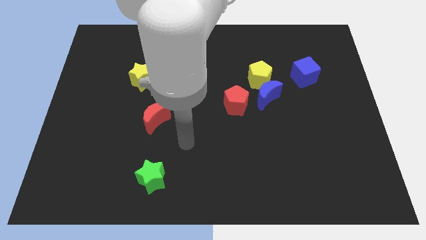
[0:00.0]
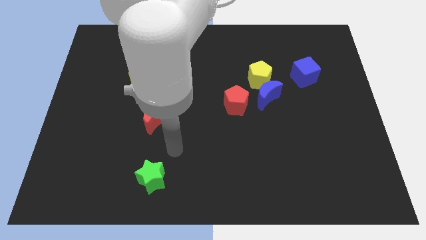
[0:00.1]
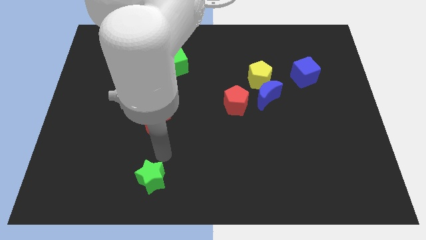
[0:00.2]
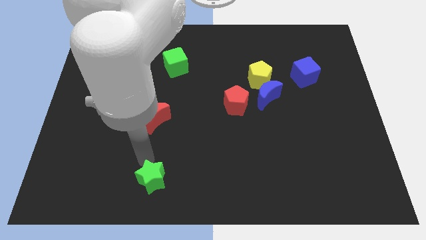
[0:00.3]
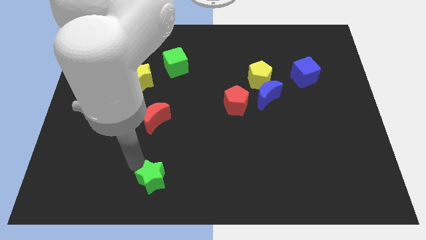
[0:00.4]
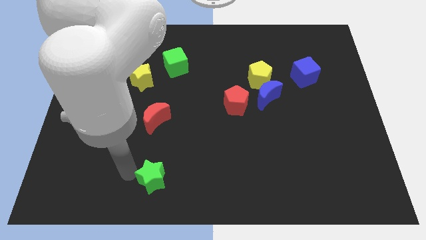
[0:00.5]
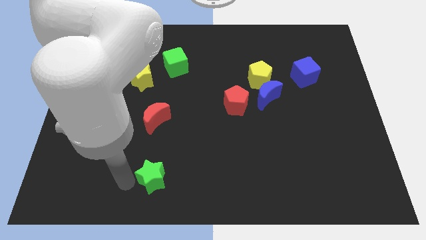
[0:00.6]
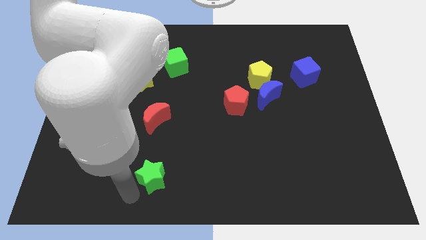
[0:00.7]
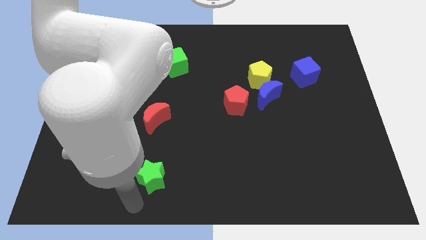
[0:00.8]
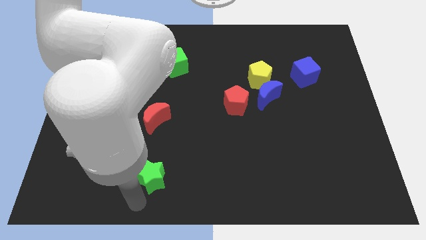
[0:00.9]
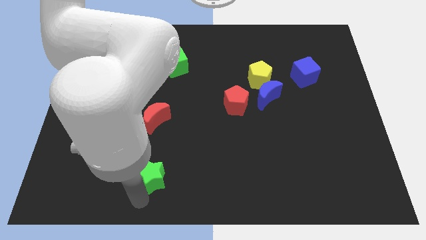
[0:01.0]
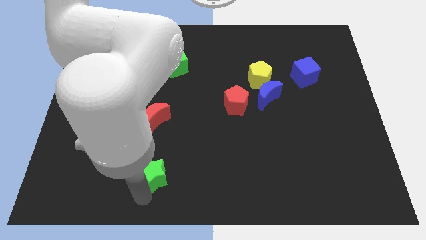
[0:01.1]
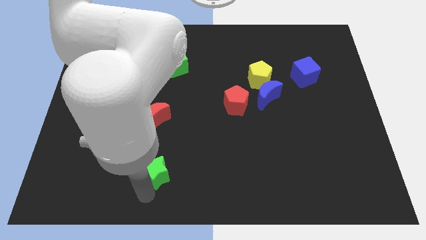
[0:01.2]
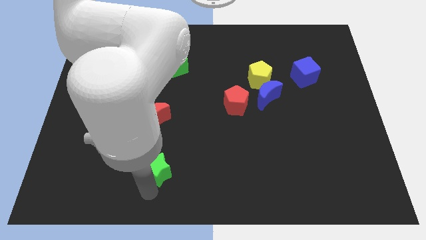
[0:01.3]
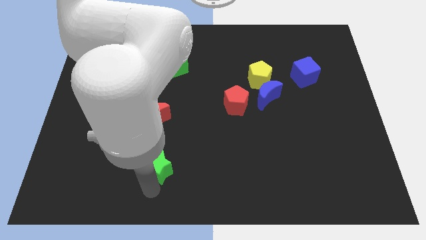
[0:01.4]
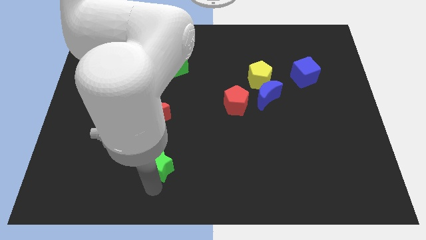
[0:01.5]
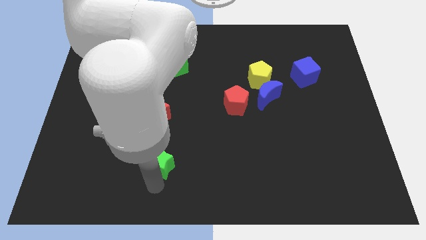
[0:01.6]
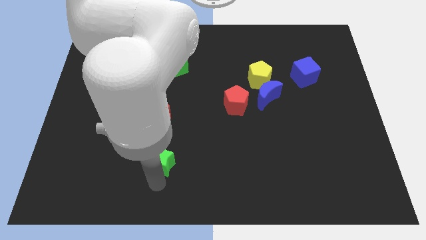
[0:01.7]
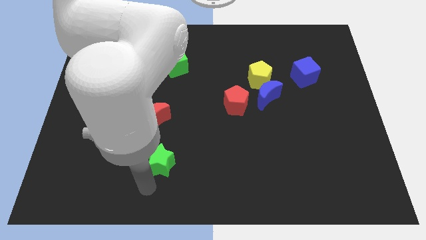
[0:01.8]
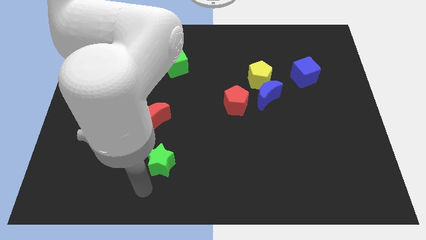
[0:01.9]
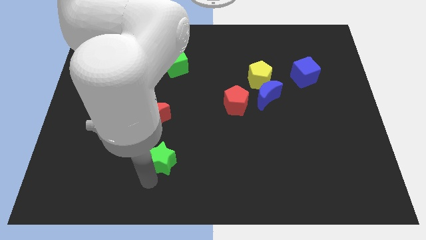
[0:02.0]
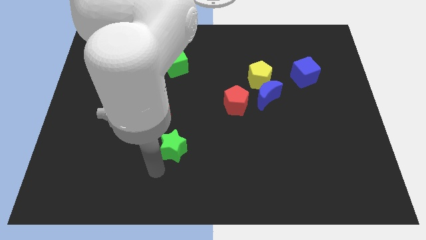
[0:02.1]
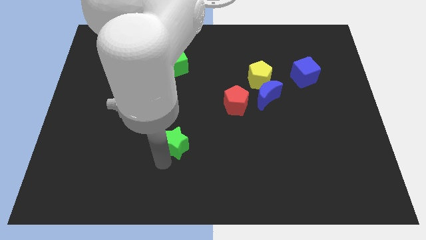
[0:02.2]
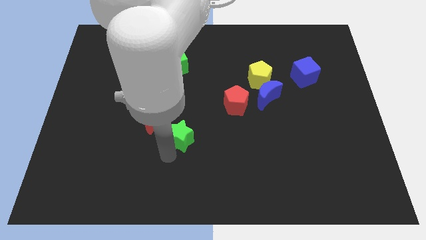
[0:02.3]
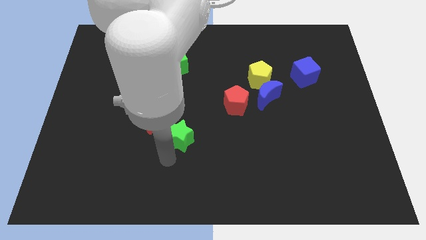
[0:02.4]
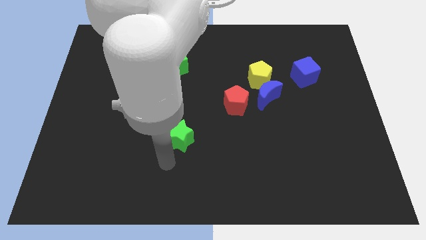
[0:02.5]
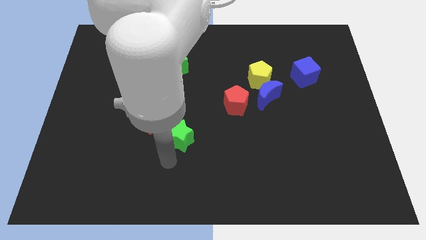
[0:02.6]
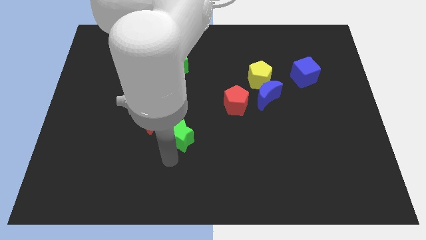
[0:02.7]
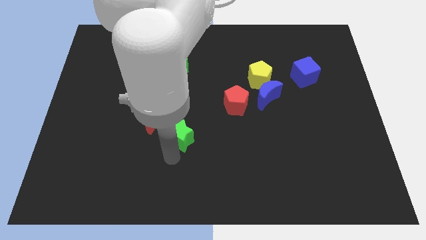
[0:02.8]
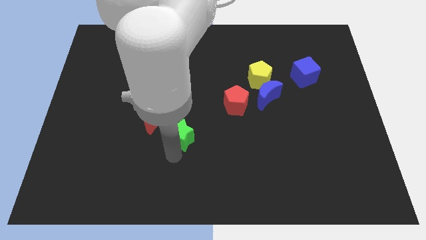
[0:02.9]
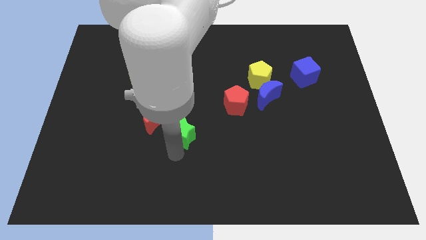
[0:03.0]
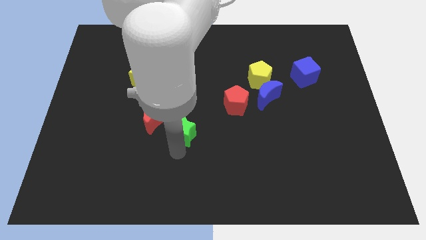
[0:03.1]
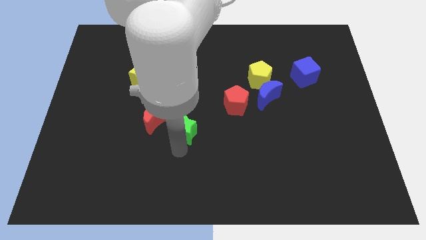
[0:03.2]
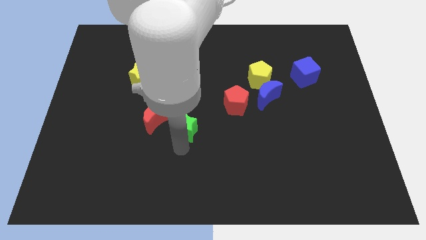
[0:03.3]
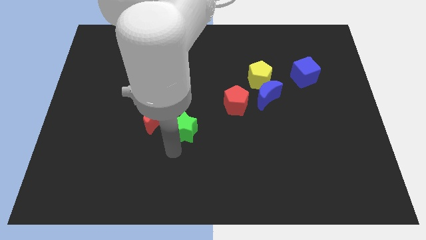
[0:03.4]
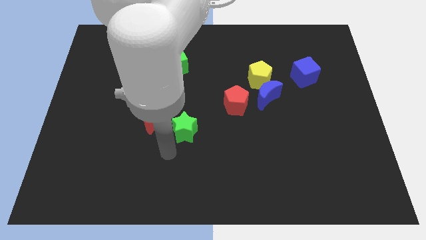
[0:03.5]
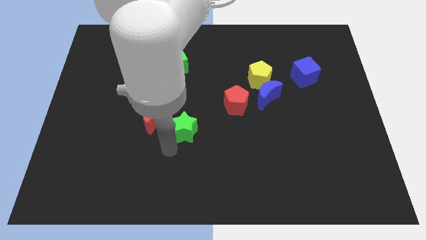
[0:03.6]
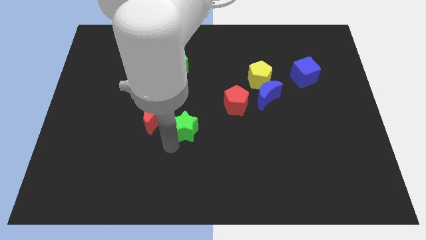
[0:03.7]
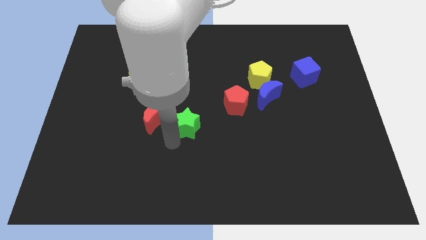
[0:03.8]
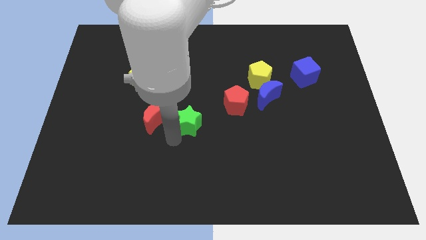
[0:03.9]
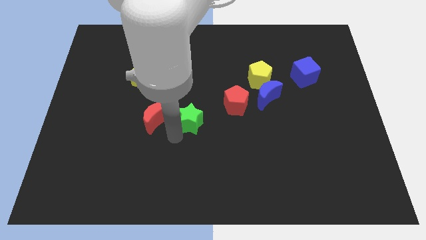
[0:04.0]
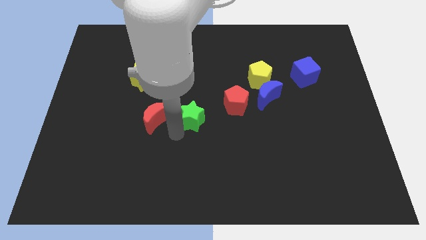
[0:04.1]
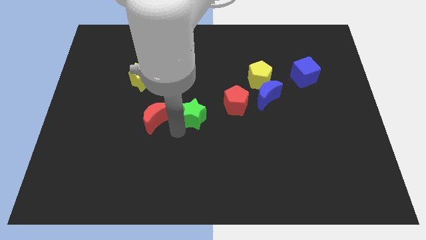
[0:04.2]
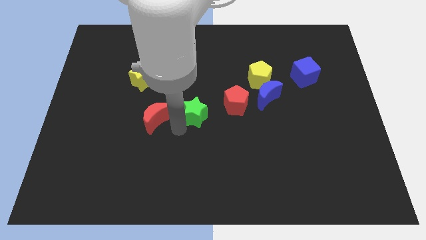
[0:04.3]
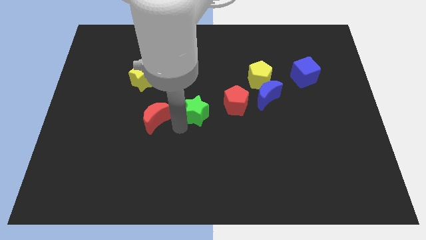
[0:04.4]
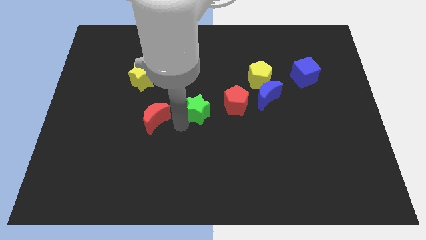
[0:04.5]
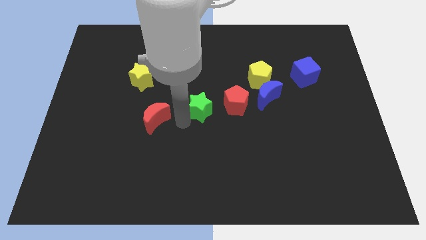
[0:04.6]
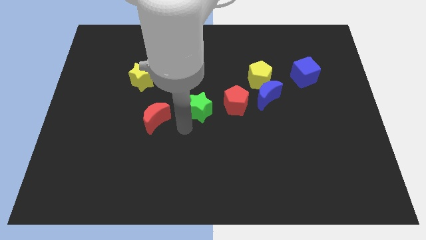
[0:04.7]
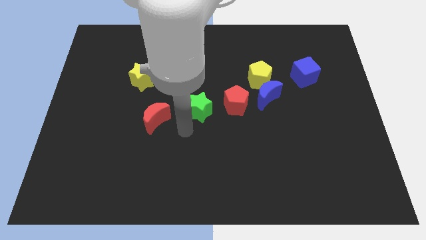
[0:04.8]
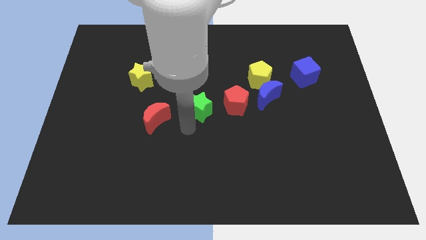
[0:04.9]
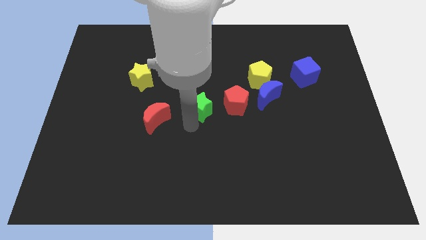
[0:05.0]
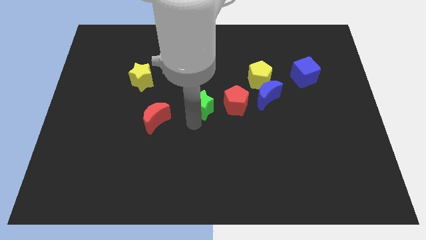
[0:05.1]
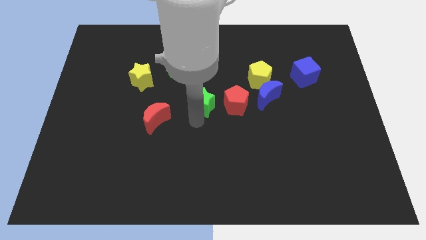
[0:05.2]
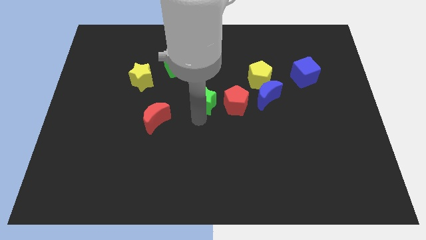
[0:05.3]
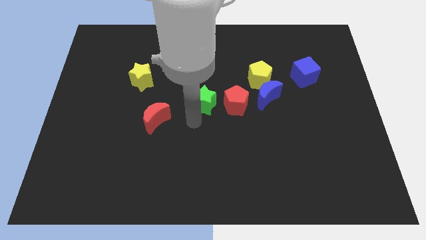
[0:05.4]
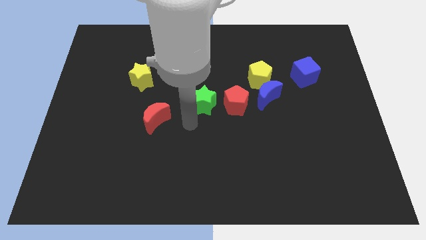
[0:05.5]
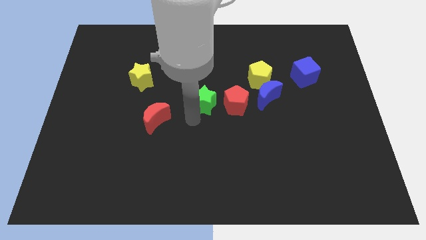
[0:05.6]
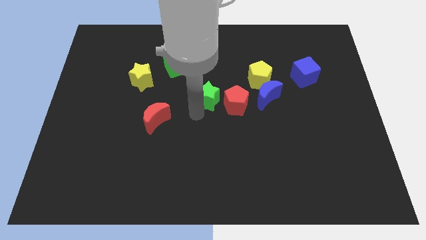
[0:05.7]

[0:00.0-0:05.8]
move the green star to the top left of the red pentagon

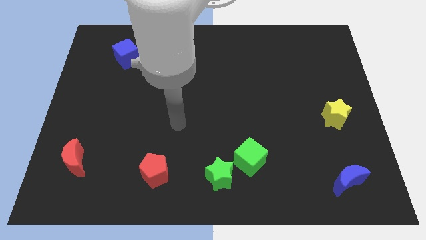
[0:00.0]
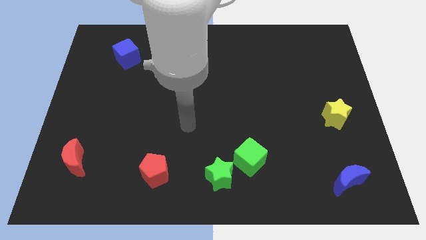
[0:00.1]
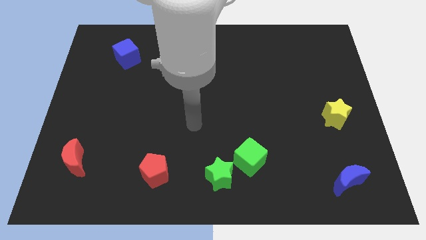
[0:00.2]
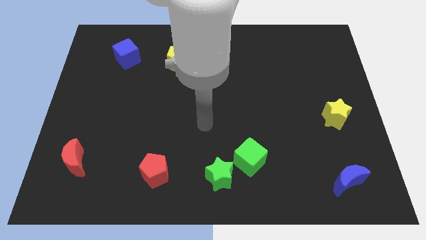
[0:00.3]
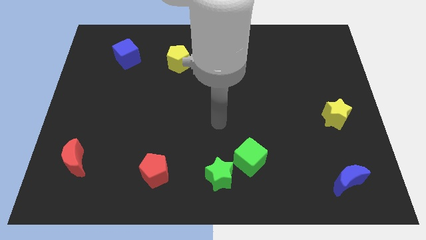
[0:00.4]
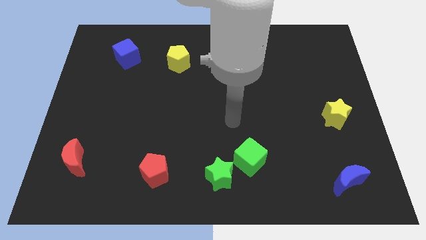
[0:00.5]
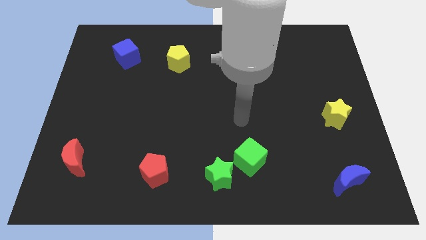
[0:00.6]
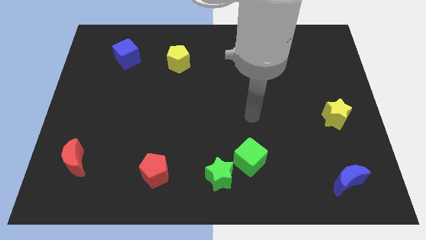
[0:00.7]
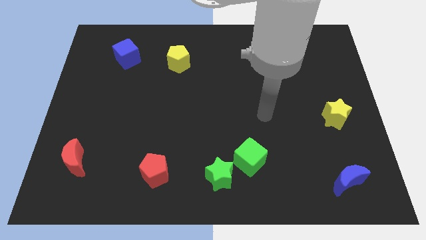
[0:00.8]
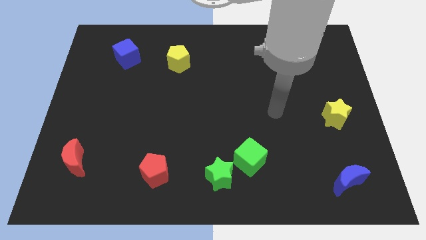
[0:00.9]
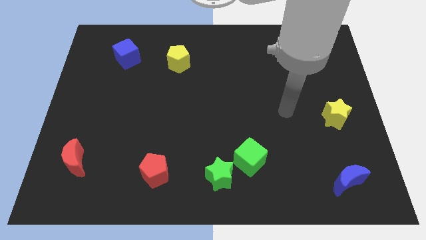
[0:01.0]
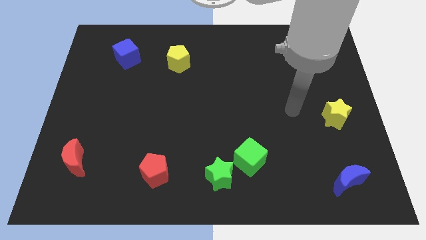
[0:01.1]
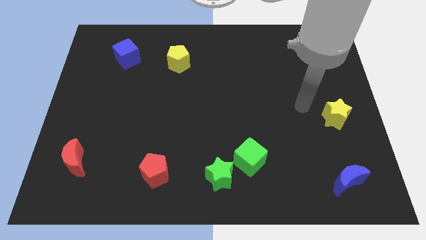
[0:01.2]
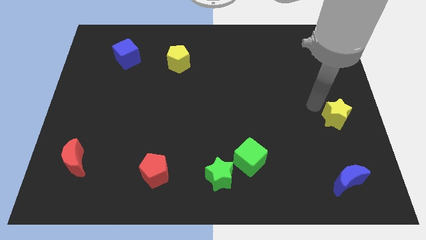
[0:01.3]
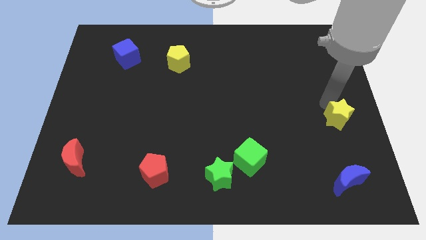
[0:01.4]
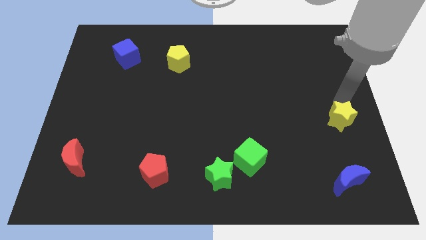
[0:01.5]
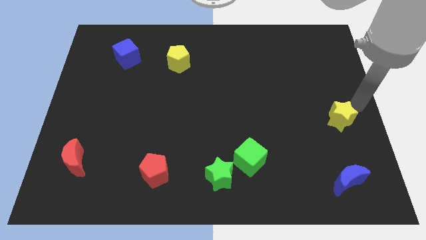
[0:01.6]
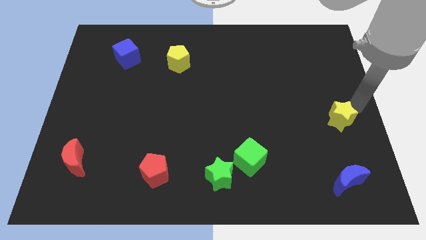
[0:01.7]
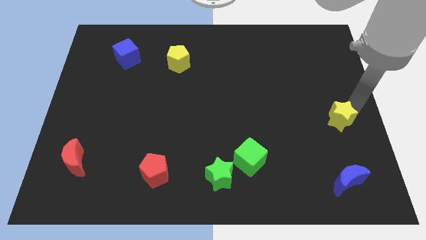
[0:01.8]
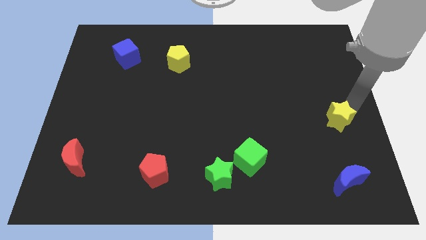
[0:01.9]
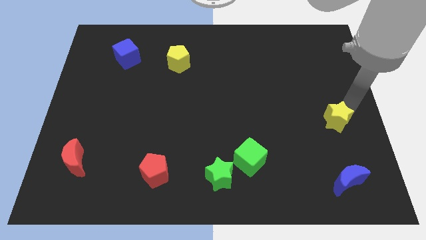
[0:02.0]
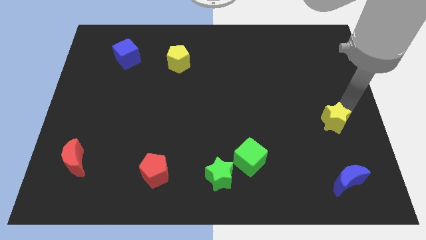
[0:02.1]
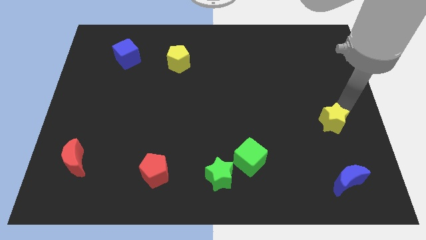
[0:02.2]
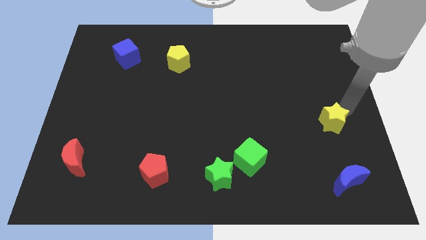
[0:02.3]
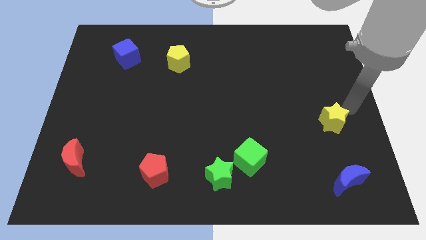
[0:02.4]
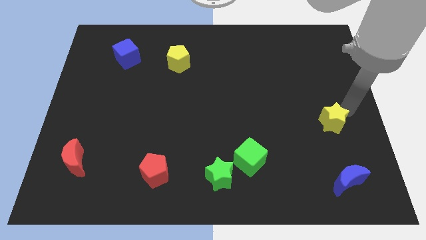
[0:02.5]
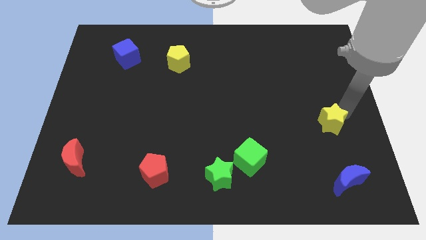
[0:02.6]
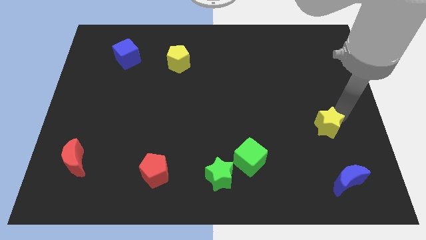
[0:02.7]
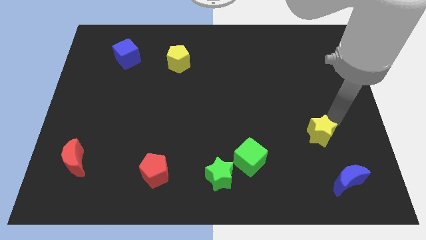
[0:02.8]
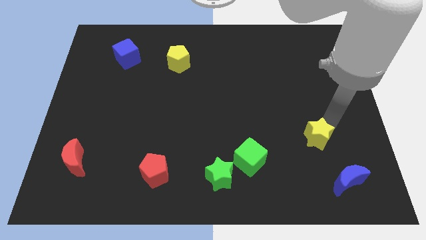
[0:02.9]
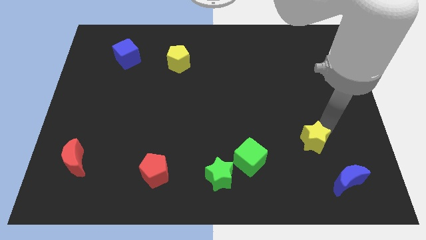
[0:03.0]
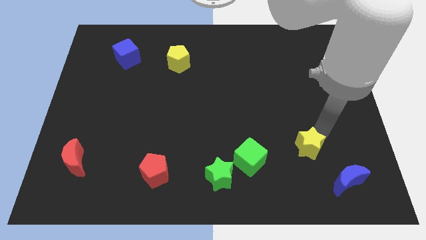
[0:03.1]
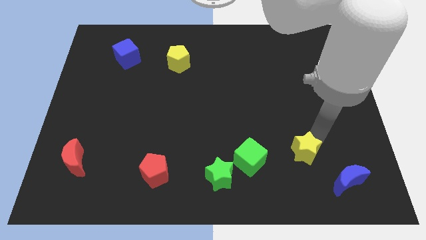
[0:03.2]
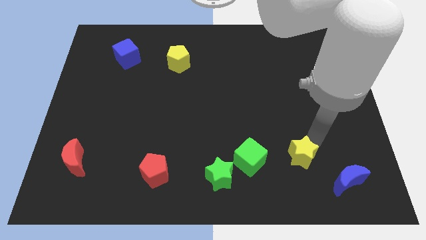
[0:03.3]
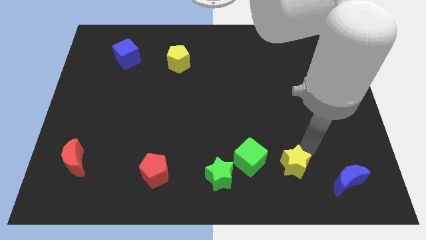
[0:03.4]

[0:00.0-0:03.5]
move the yellow star to the right side of the green star
